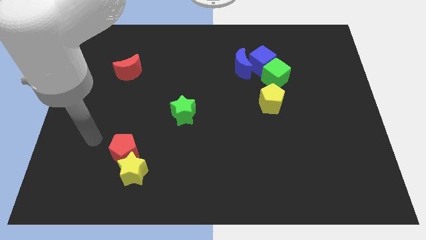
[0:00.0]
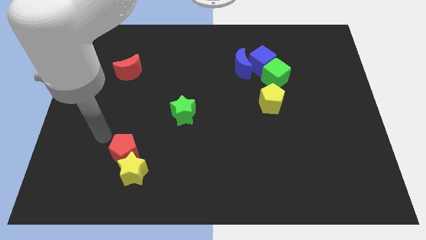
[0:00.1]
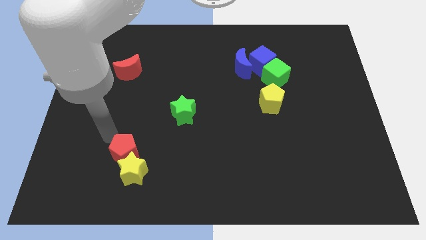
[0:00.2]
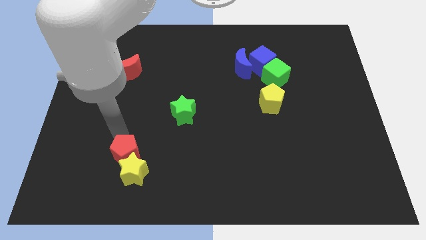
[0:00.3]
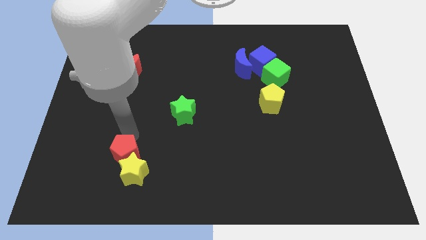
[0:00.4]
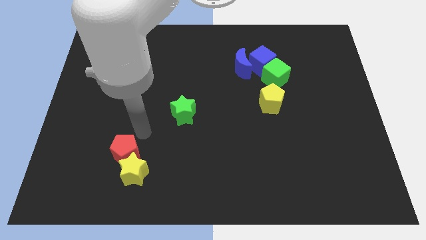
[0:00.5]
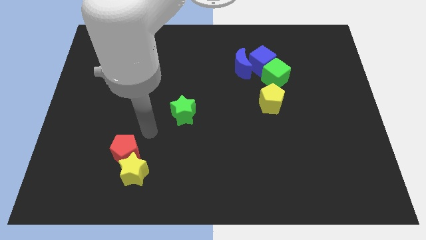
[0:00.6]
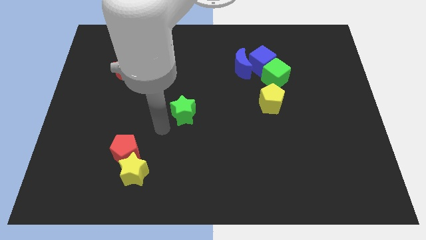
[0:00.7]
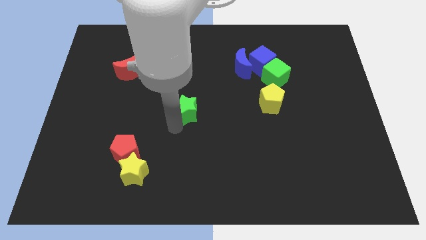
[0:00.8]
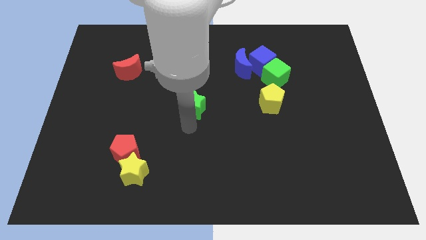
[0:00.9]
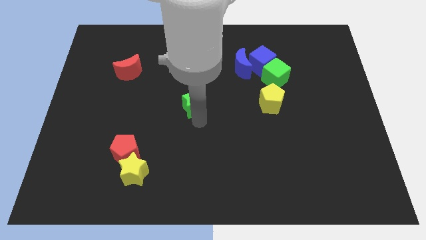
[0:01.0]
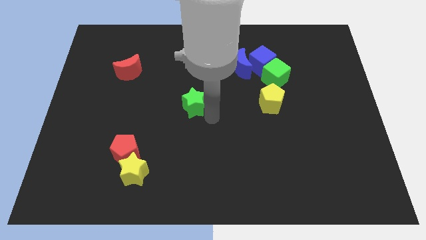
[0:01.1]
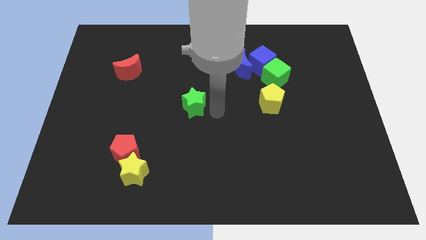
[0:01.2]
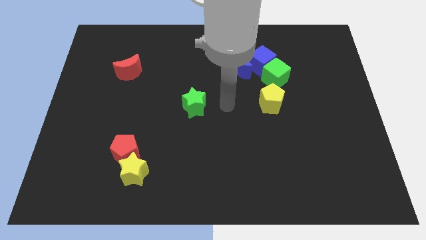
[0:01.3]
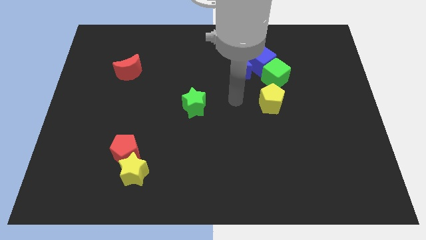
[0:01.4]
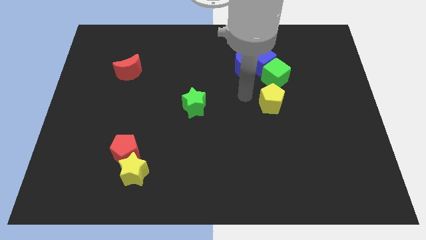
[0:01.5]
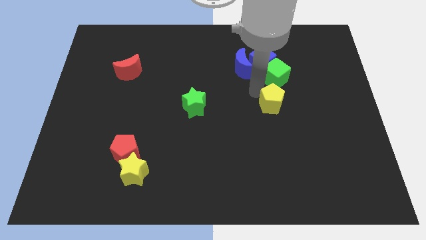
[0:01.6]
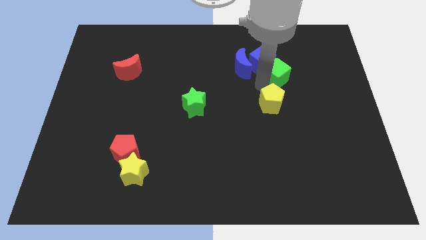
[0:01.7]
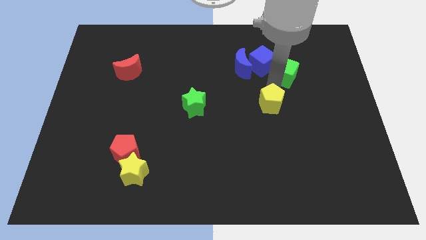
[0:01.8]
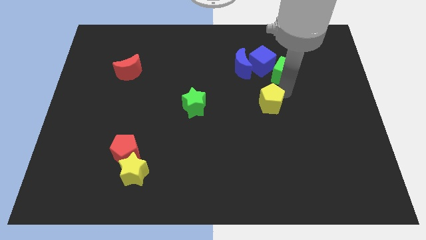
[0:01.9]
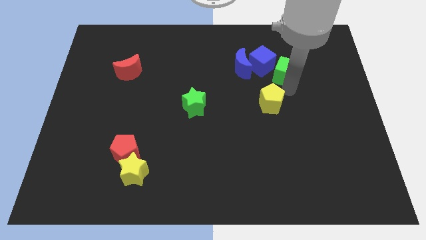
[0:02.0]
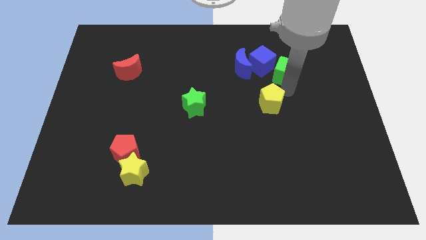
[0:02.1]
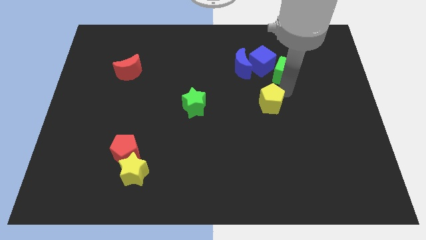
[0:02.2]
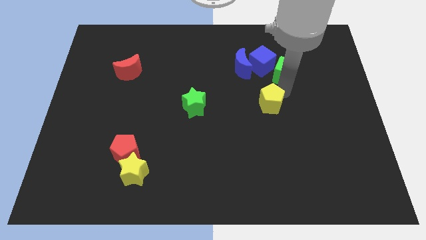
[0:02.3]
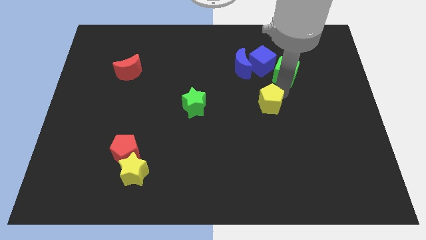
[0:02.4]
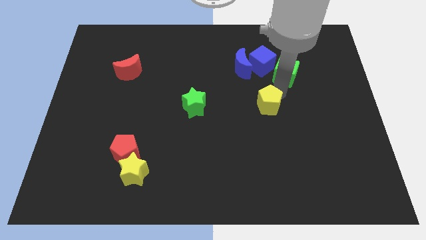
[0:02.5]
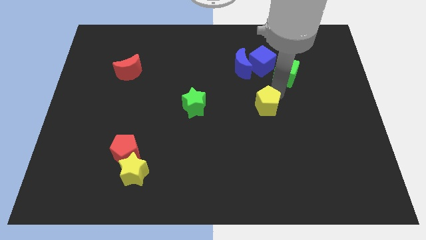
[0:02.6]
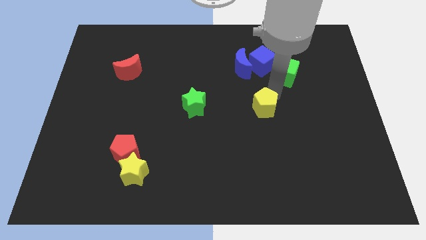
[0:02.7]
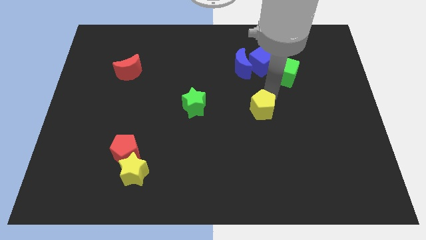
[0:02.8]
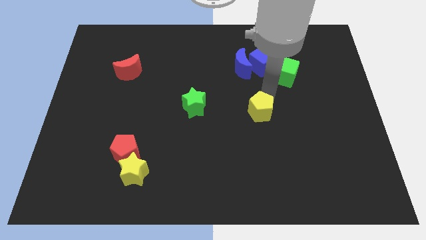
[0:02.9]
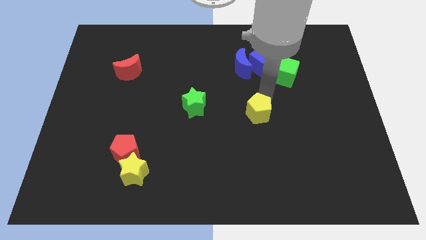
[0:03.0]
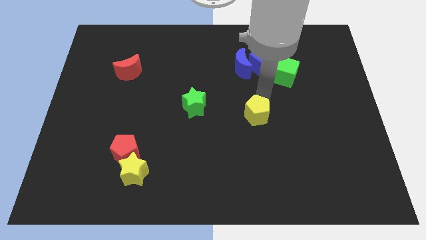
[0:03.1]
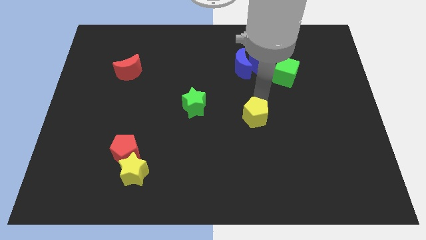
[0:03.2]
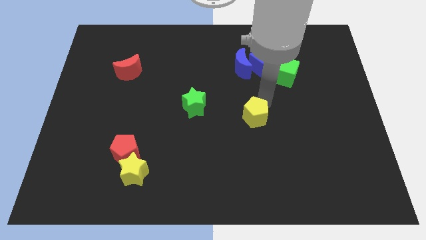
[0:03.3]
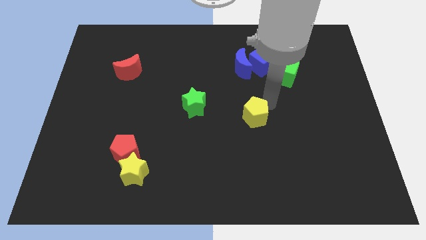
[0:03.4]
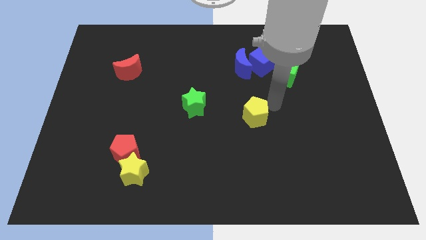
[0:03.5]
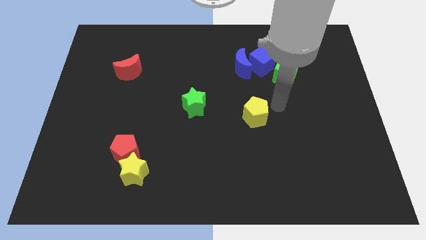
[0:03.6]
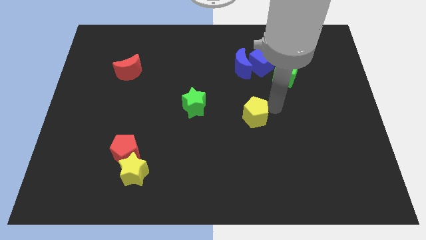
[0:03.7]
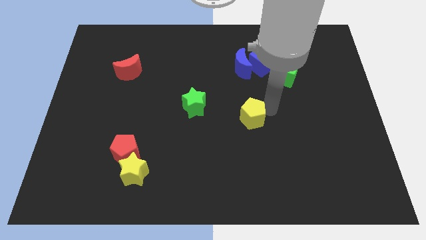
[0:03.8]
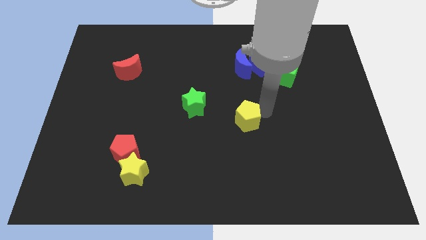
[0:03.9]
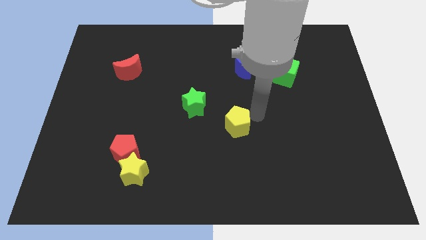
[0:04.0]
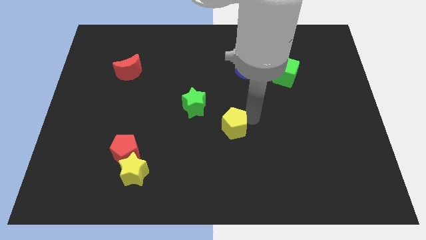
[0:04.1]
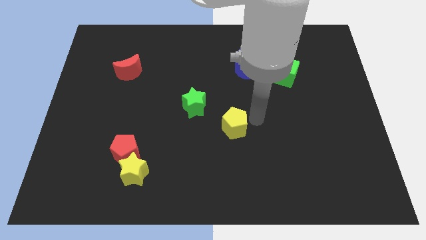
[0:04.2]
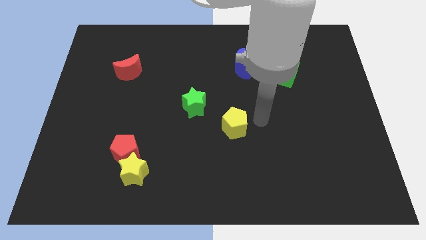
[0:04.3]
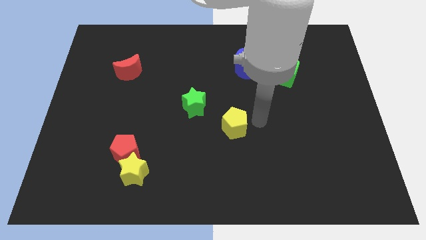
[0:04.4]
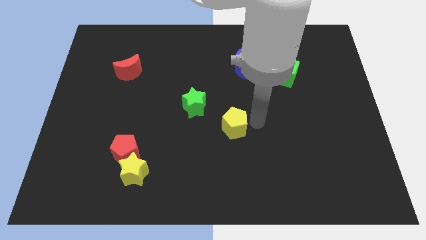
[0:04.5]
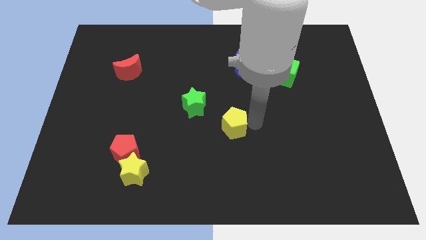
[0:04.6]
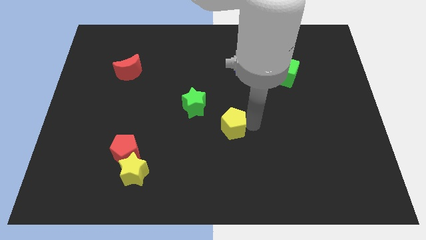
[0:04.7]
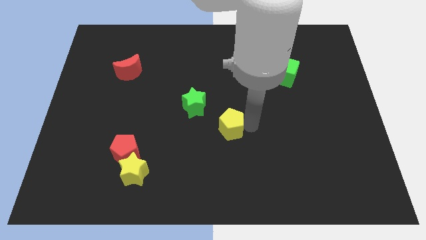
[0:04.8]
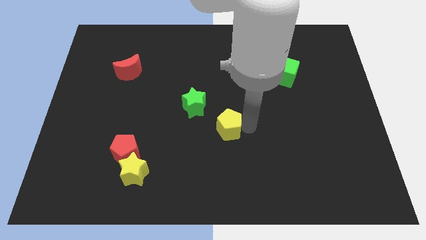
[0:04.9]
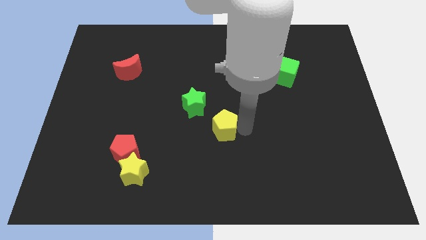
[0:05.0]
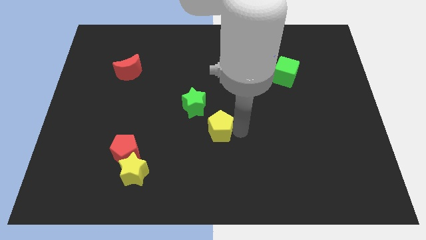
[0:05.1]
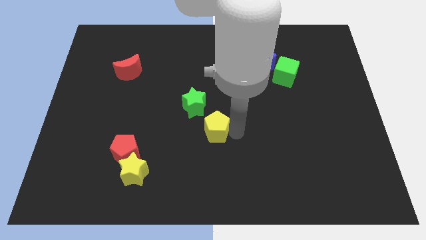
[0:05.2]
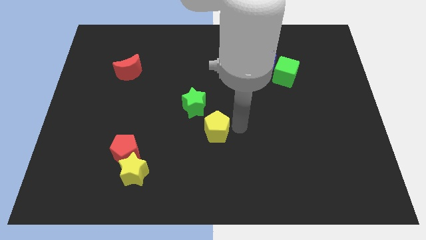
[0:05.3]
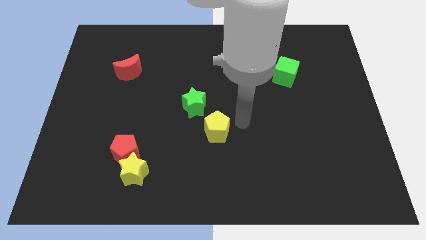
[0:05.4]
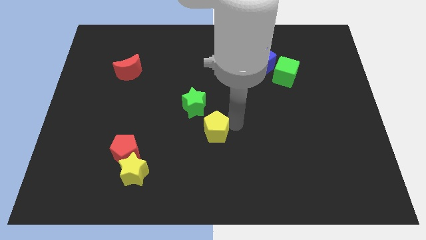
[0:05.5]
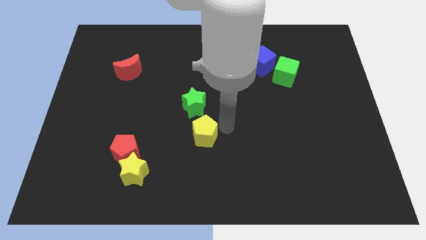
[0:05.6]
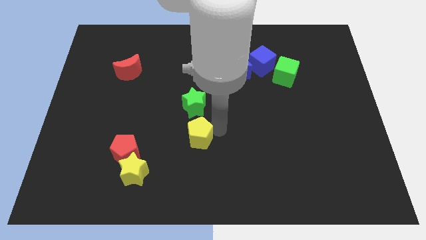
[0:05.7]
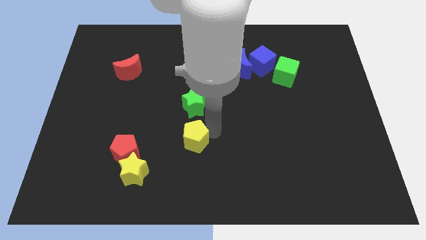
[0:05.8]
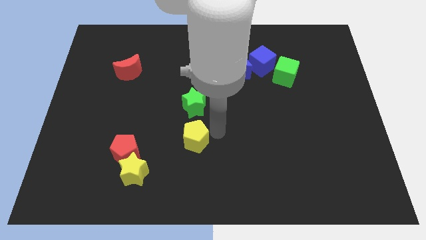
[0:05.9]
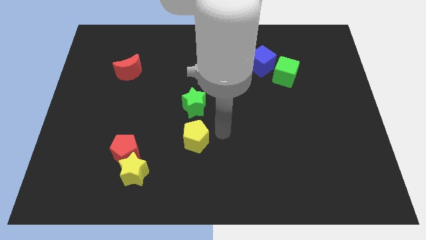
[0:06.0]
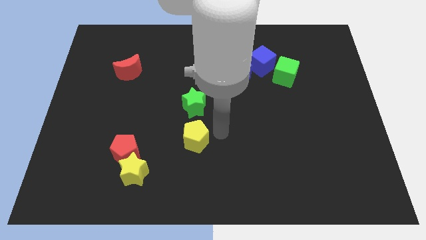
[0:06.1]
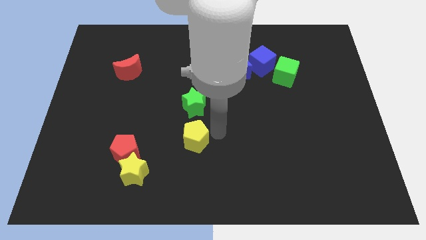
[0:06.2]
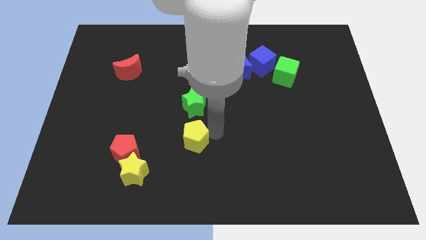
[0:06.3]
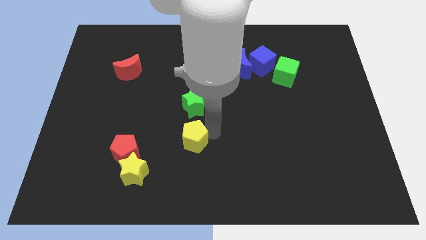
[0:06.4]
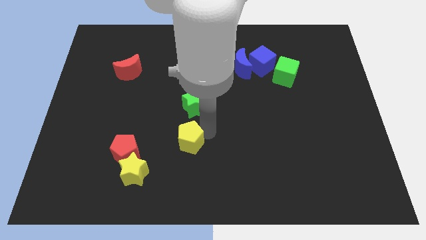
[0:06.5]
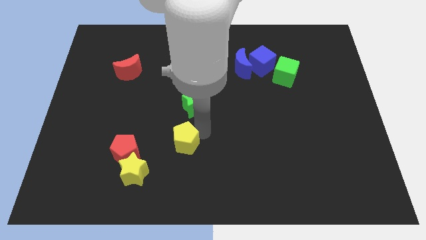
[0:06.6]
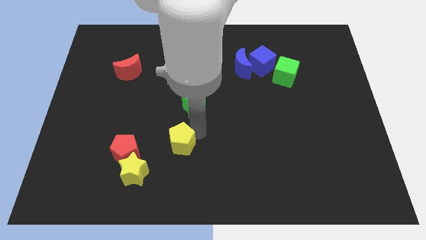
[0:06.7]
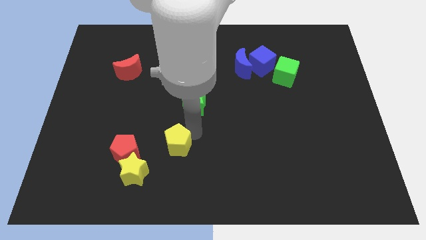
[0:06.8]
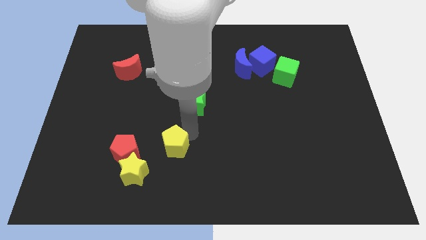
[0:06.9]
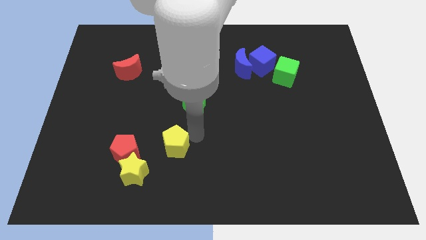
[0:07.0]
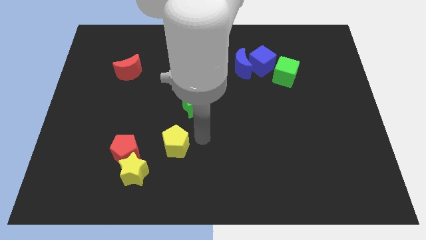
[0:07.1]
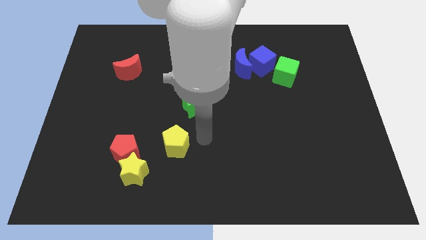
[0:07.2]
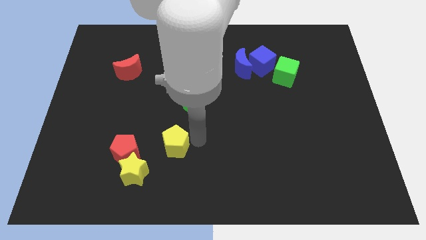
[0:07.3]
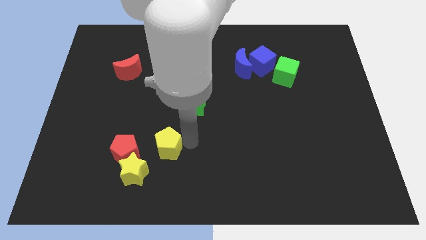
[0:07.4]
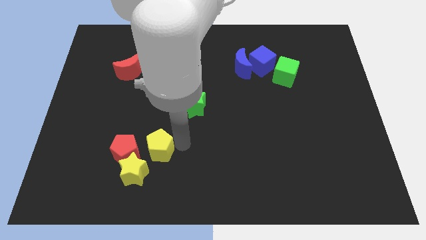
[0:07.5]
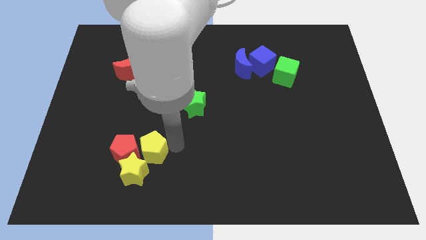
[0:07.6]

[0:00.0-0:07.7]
slide the yellow pentagon towards the red pentagon
